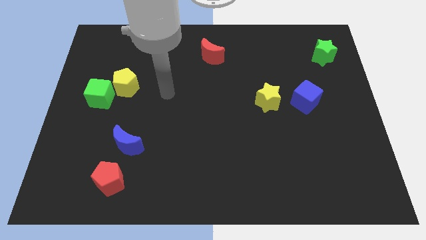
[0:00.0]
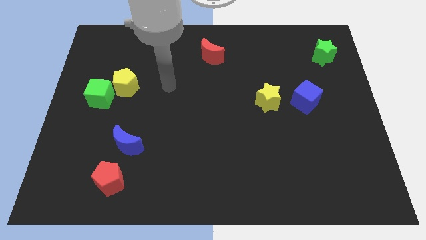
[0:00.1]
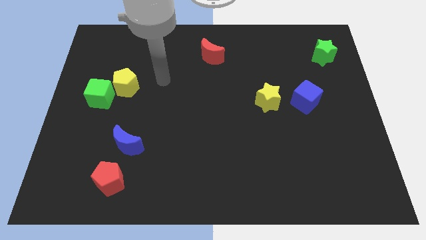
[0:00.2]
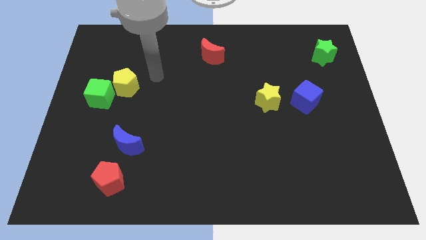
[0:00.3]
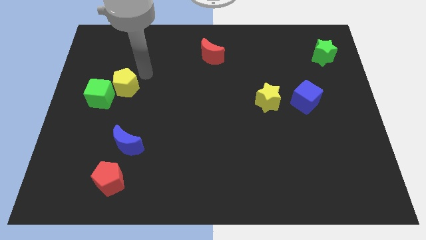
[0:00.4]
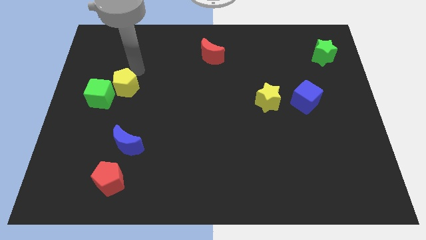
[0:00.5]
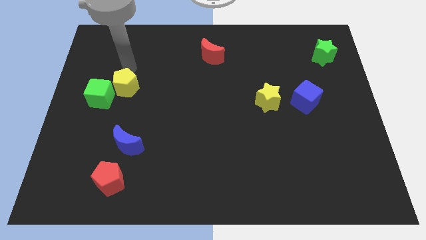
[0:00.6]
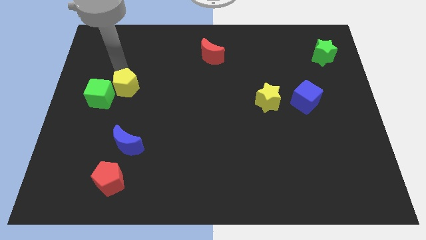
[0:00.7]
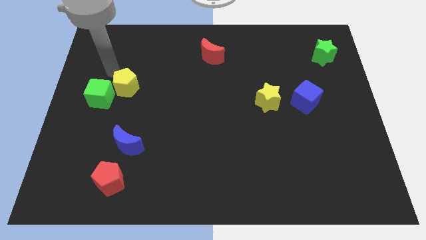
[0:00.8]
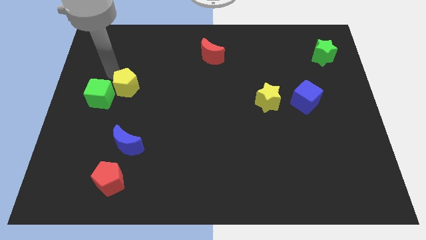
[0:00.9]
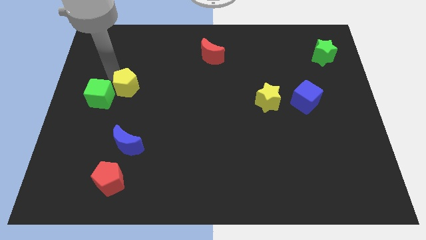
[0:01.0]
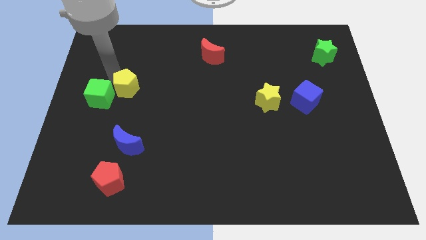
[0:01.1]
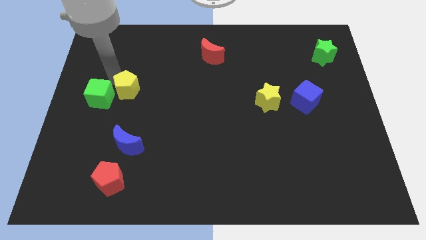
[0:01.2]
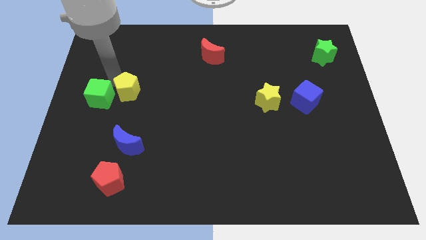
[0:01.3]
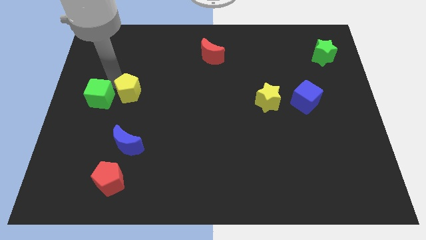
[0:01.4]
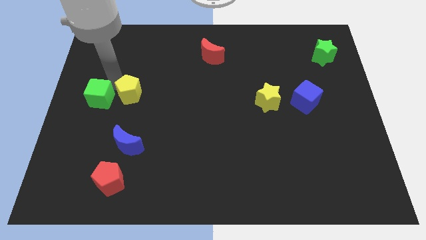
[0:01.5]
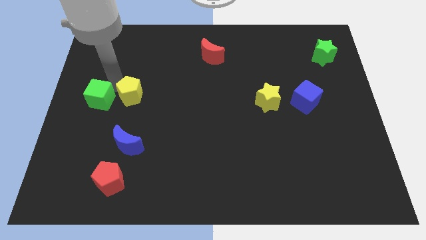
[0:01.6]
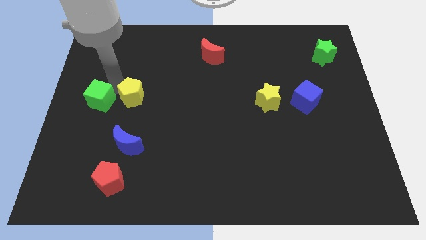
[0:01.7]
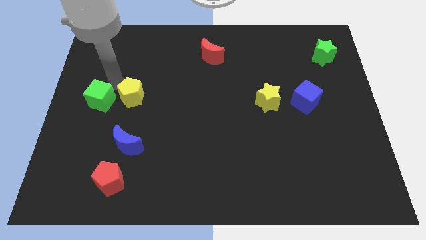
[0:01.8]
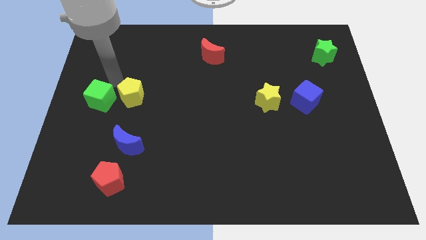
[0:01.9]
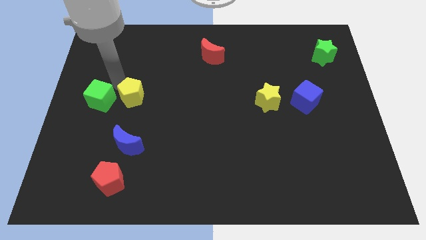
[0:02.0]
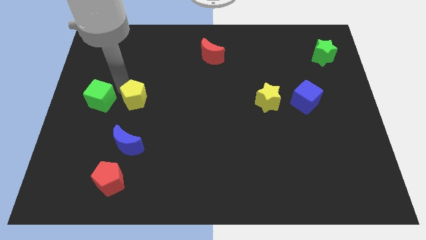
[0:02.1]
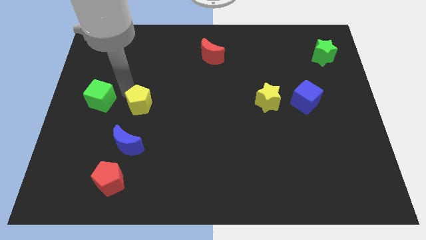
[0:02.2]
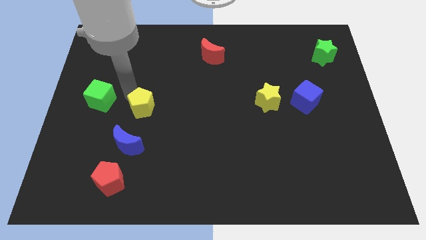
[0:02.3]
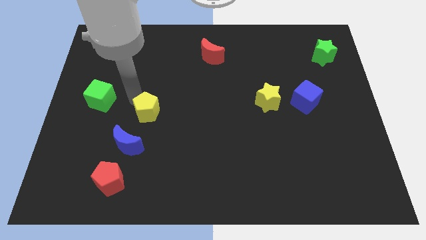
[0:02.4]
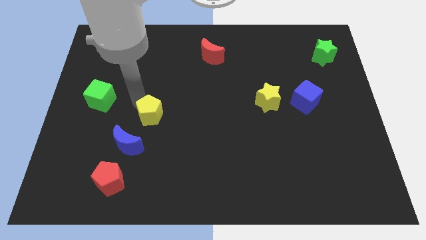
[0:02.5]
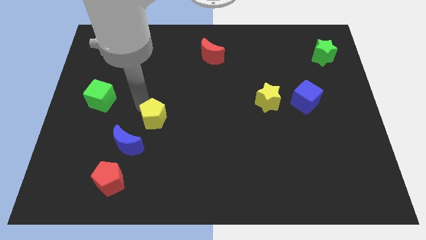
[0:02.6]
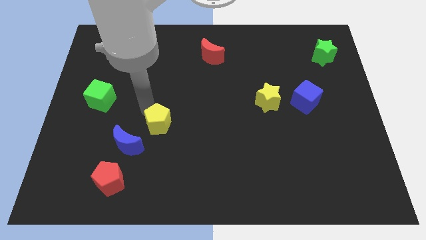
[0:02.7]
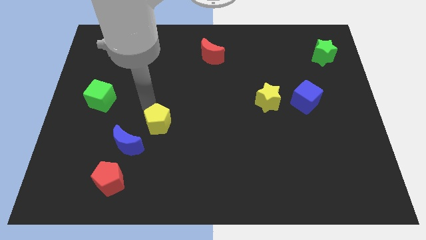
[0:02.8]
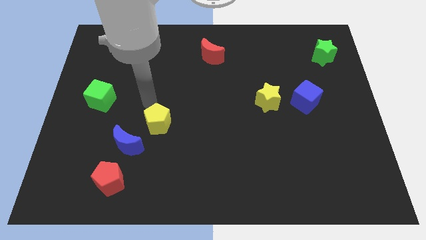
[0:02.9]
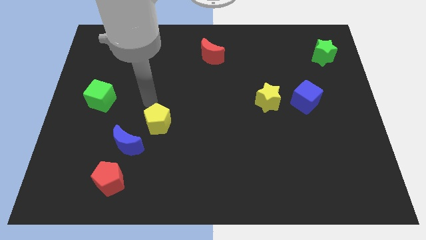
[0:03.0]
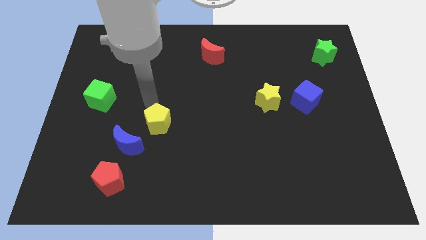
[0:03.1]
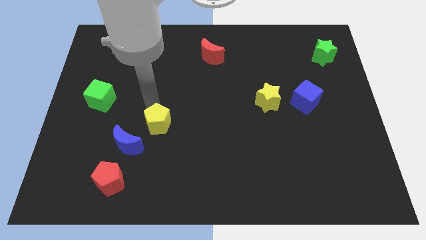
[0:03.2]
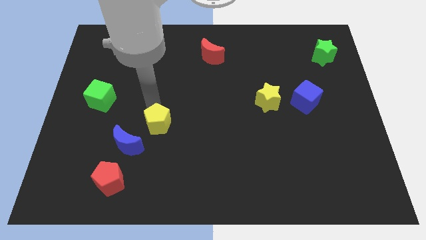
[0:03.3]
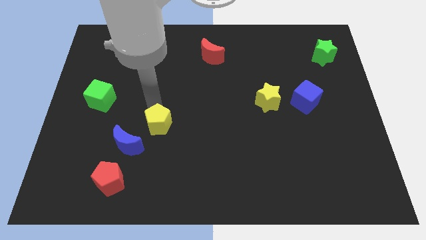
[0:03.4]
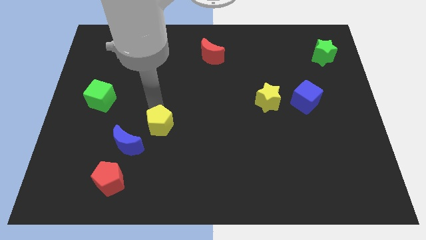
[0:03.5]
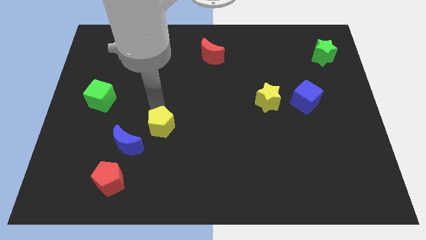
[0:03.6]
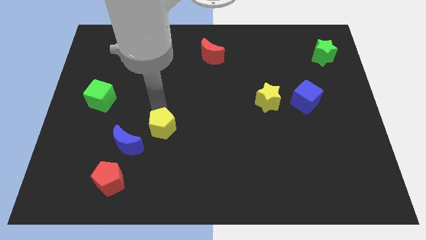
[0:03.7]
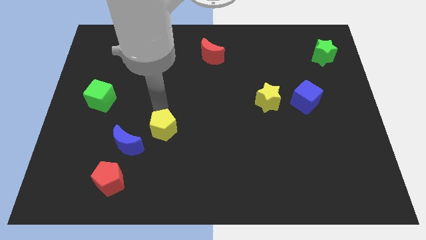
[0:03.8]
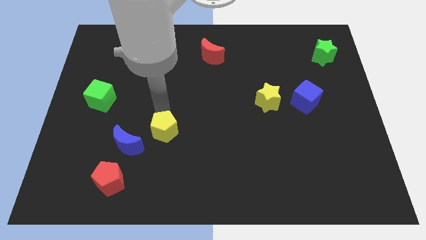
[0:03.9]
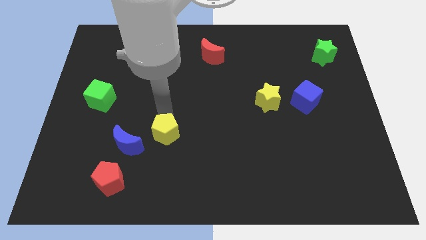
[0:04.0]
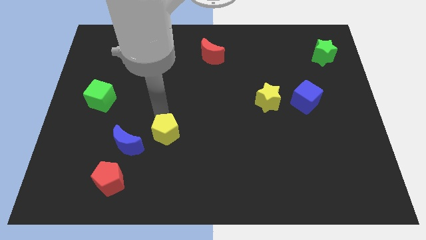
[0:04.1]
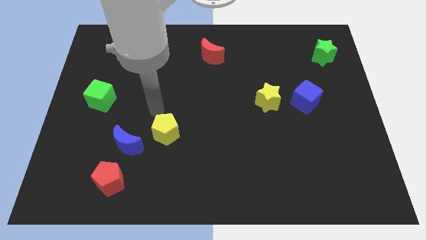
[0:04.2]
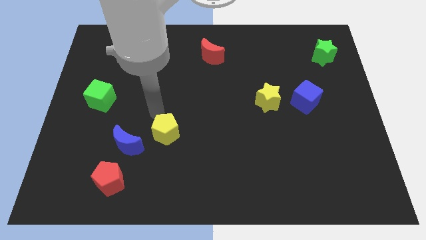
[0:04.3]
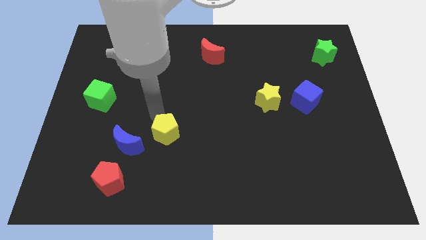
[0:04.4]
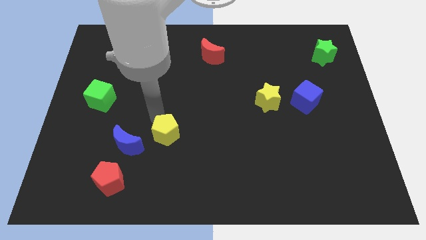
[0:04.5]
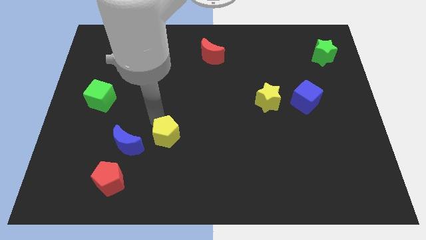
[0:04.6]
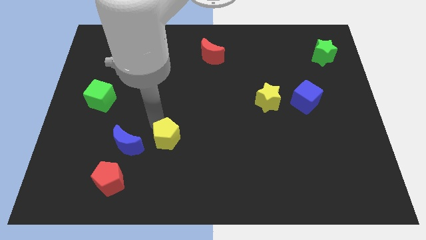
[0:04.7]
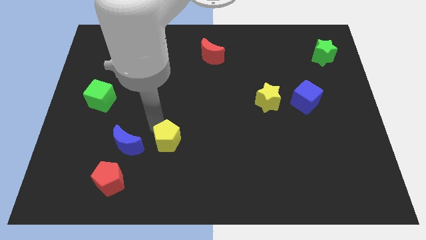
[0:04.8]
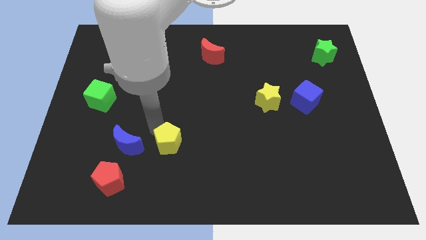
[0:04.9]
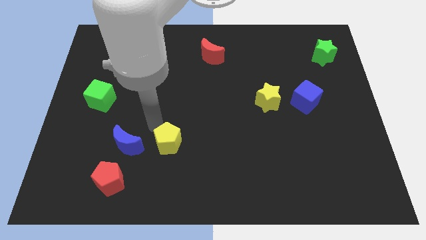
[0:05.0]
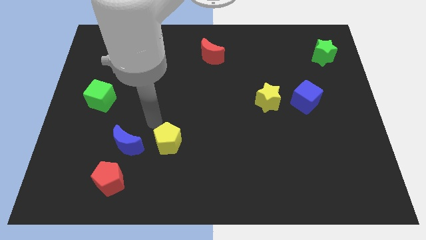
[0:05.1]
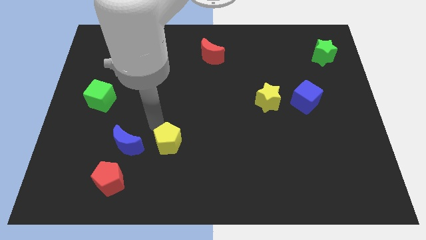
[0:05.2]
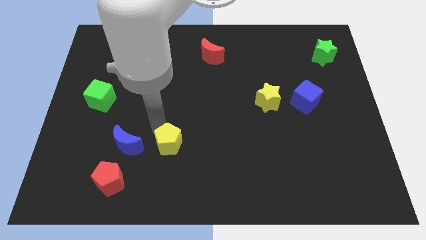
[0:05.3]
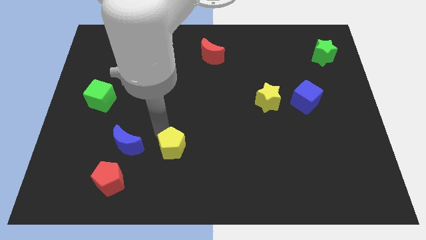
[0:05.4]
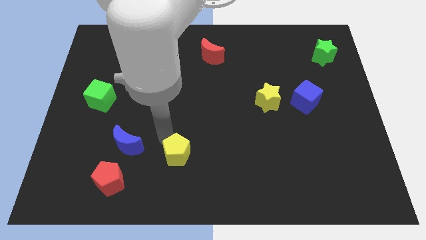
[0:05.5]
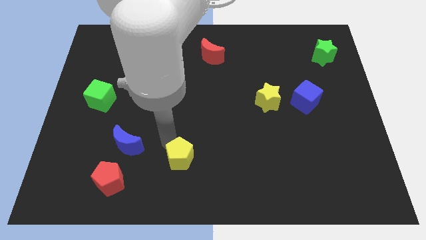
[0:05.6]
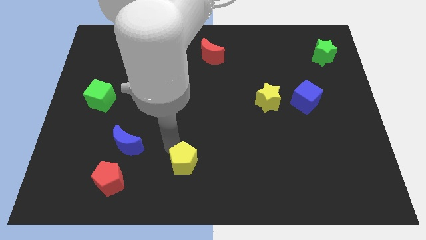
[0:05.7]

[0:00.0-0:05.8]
put the yellow pentagon to the bottom

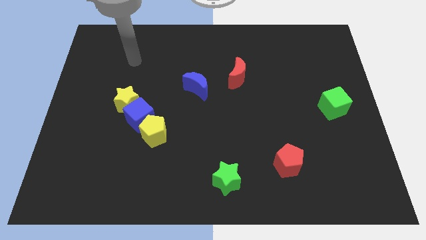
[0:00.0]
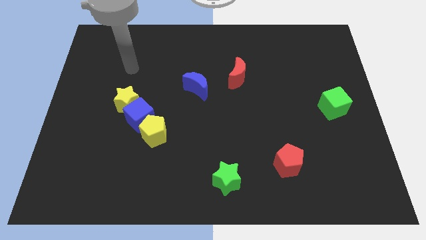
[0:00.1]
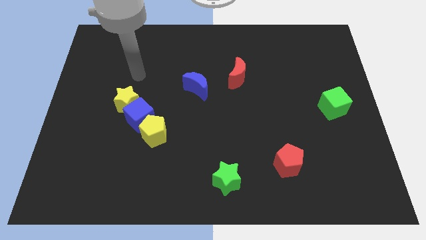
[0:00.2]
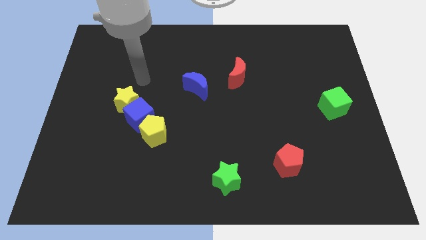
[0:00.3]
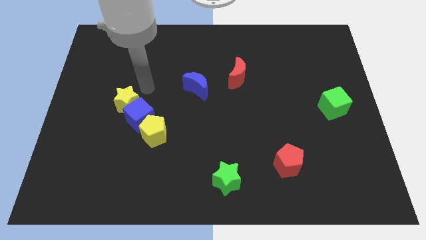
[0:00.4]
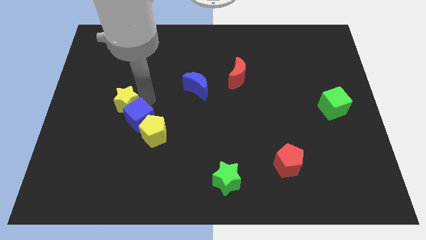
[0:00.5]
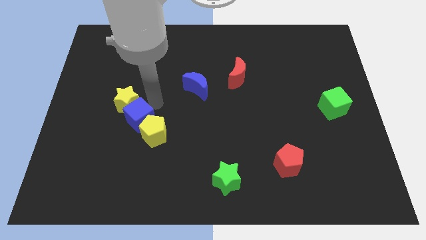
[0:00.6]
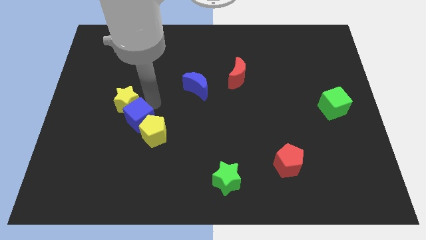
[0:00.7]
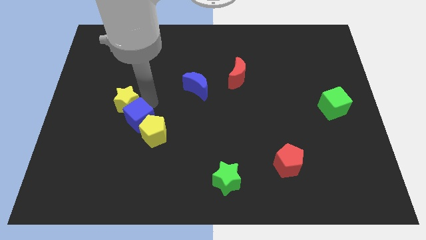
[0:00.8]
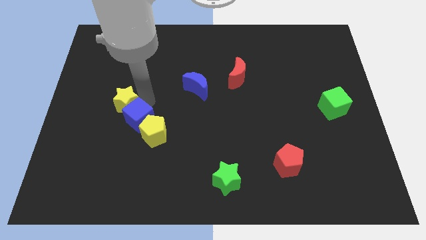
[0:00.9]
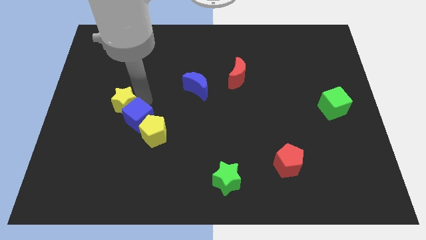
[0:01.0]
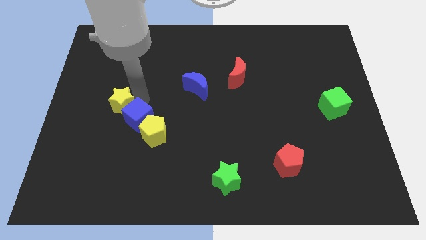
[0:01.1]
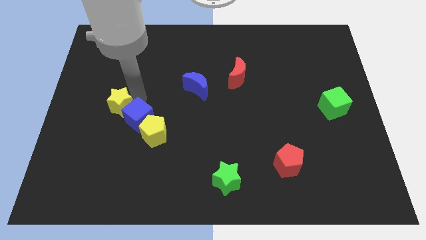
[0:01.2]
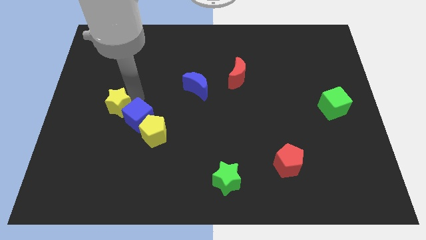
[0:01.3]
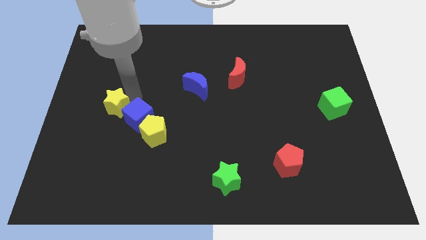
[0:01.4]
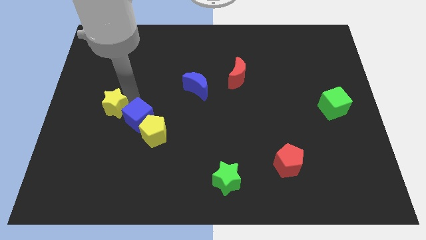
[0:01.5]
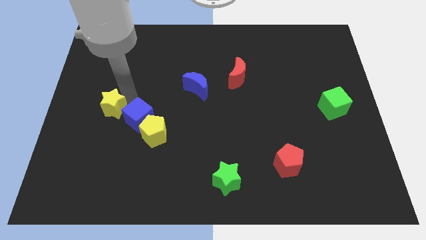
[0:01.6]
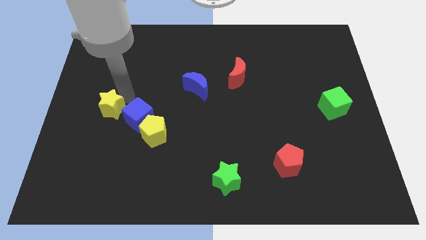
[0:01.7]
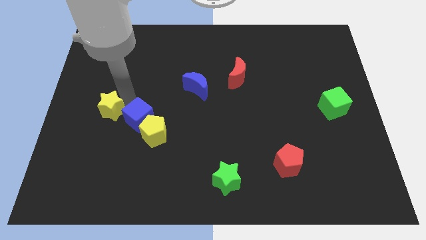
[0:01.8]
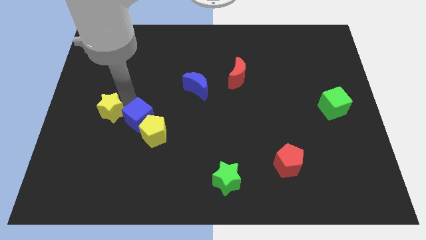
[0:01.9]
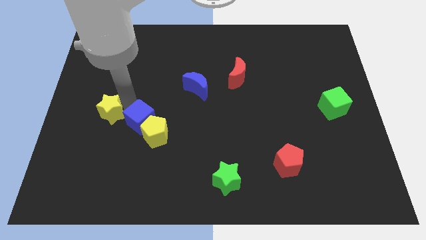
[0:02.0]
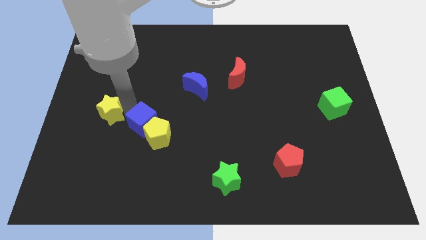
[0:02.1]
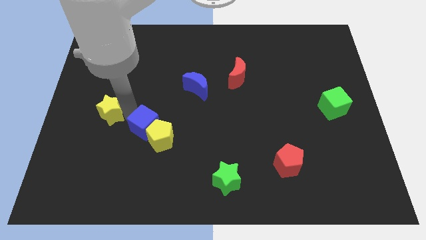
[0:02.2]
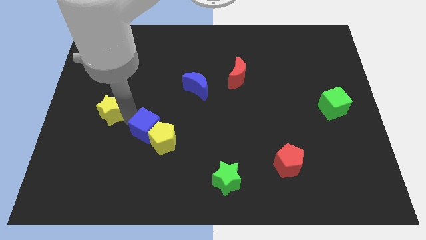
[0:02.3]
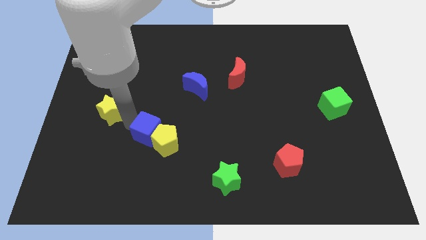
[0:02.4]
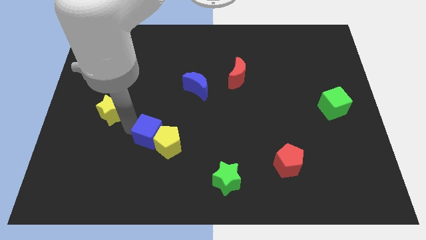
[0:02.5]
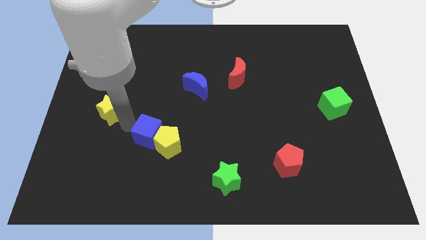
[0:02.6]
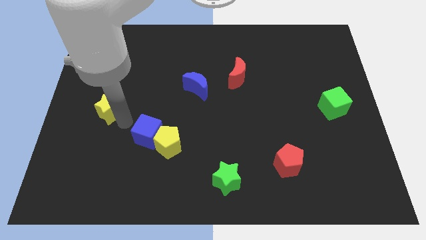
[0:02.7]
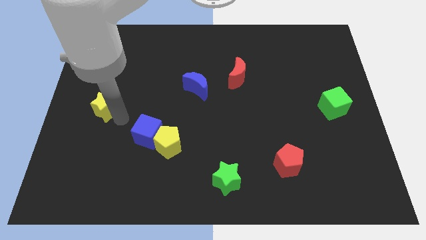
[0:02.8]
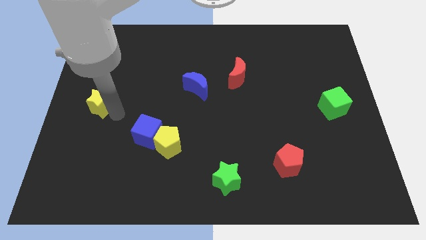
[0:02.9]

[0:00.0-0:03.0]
slide the yellow star to the left side
